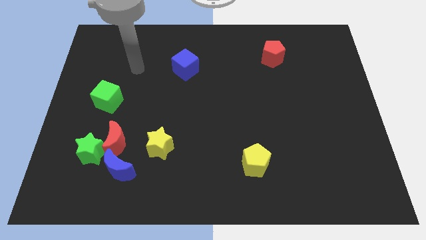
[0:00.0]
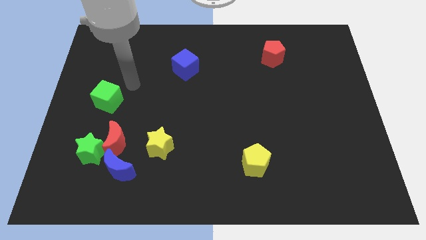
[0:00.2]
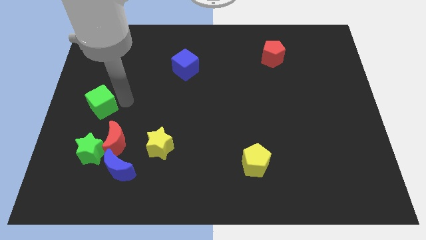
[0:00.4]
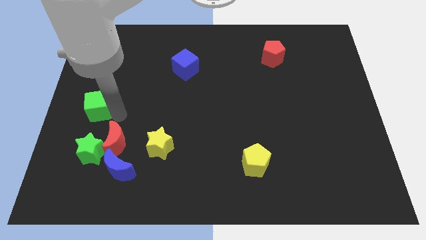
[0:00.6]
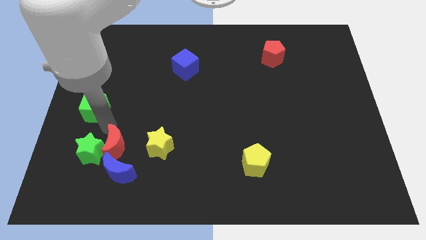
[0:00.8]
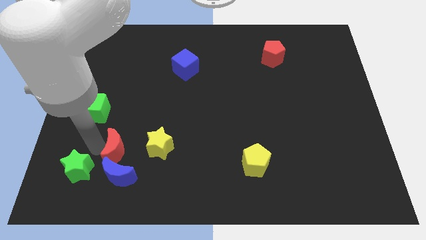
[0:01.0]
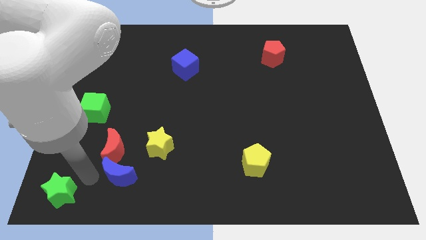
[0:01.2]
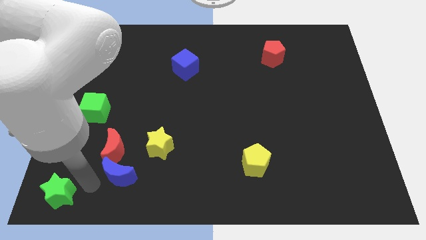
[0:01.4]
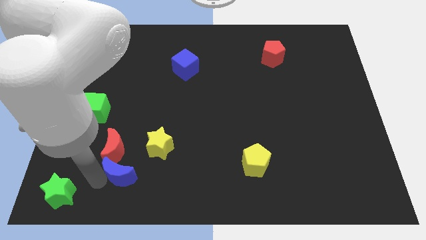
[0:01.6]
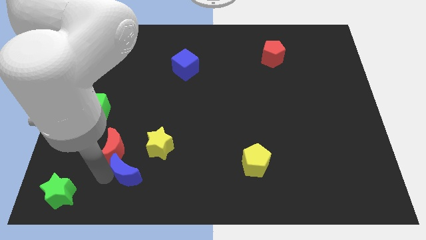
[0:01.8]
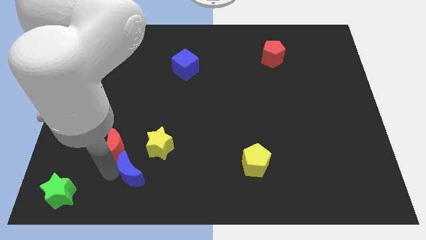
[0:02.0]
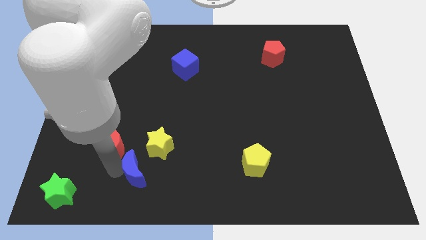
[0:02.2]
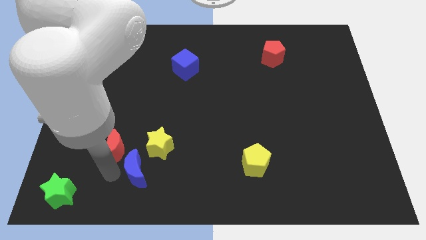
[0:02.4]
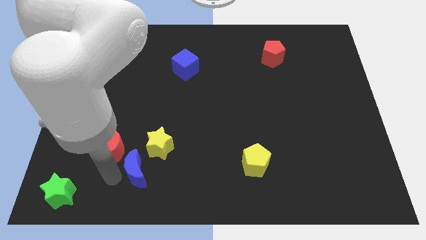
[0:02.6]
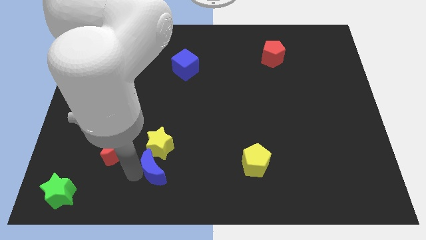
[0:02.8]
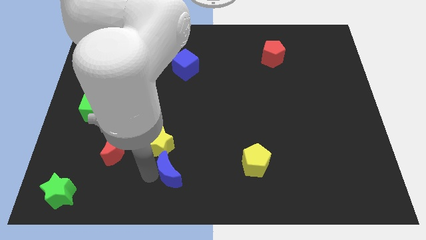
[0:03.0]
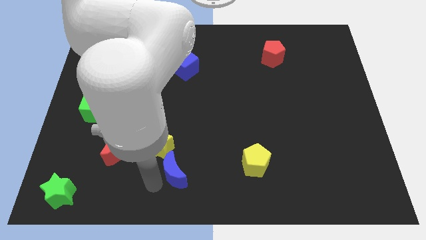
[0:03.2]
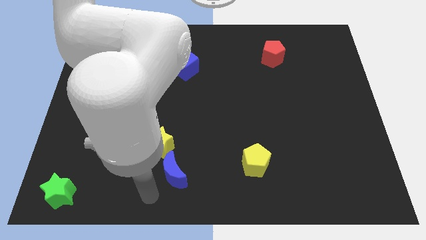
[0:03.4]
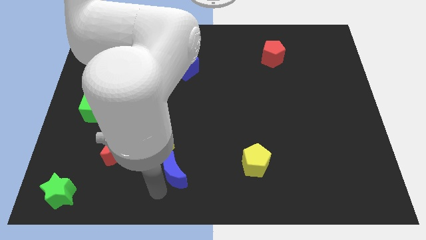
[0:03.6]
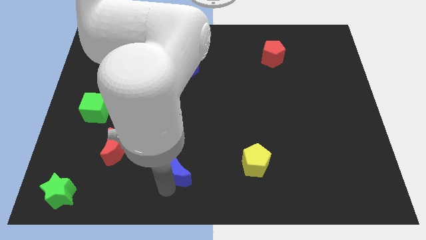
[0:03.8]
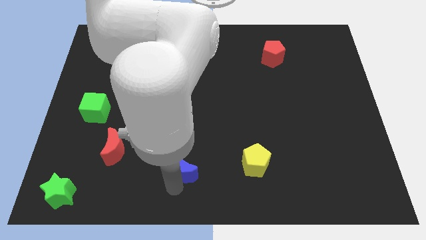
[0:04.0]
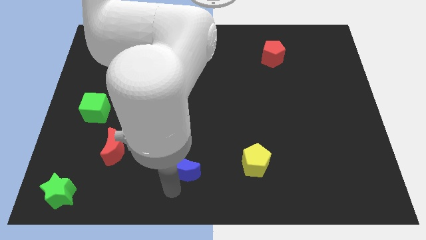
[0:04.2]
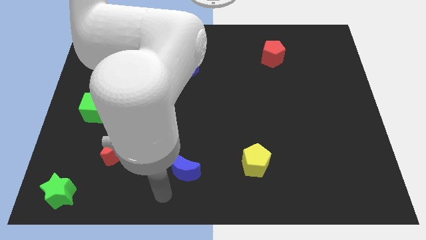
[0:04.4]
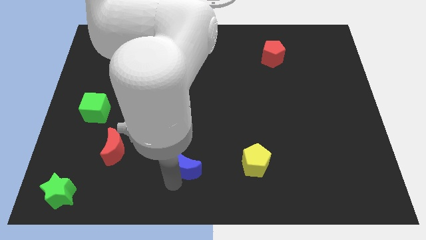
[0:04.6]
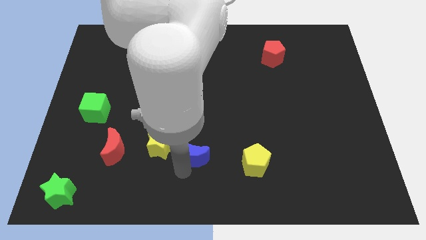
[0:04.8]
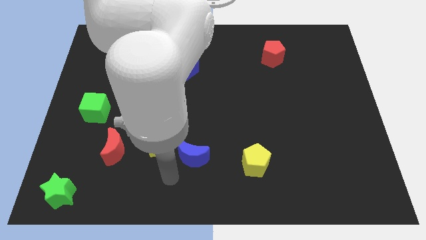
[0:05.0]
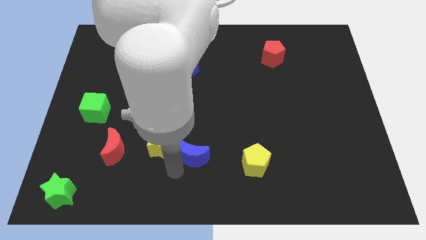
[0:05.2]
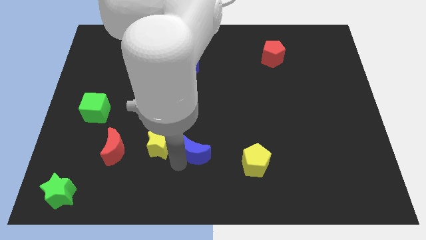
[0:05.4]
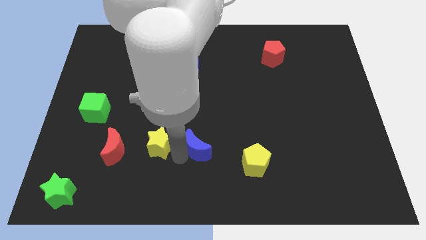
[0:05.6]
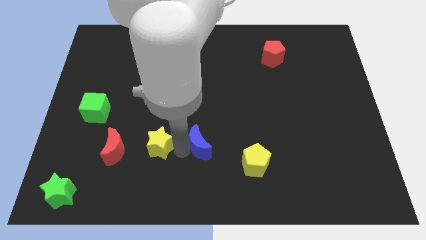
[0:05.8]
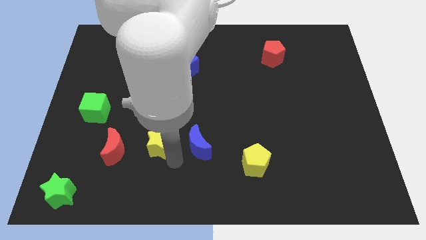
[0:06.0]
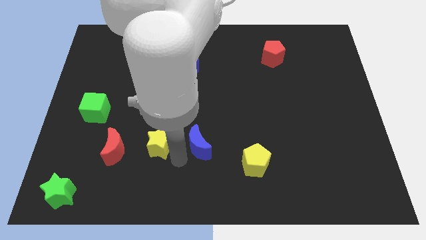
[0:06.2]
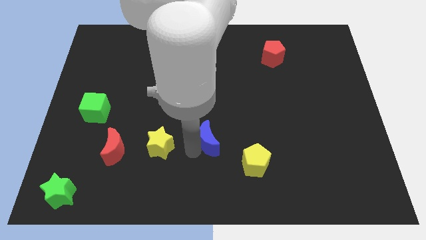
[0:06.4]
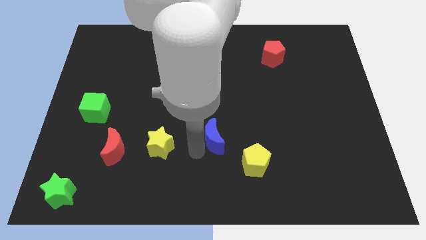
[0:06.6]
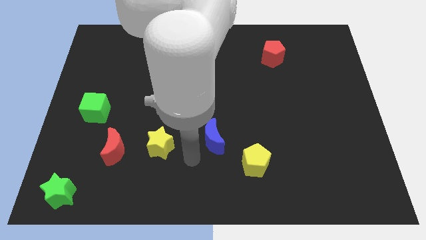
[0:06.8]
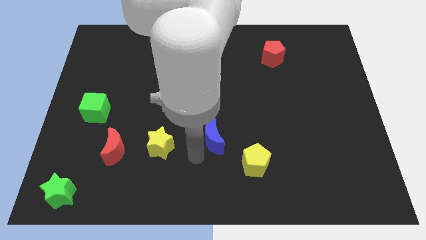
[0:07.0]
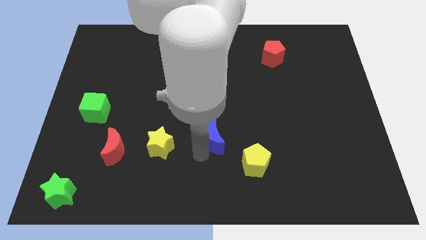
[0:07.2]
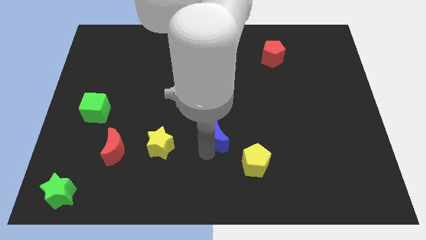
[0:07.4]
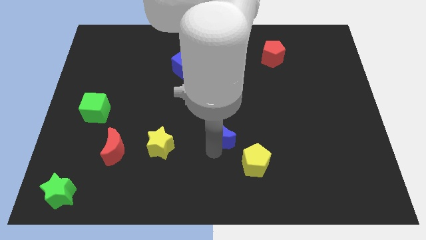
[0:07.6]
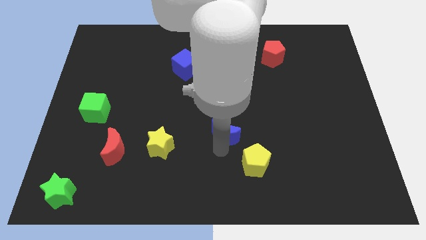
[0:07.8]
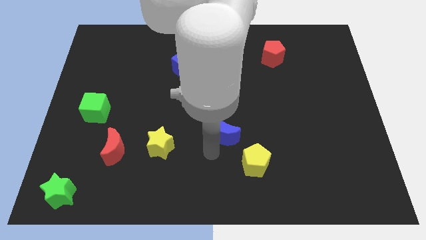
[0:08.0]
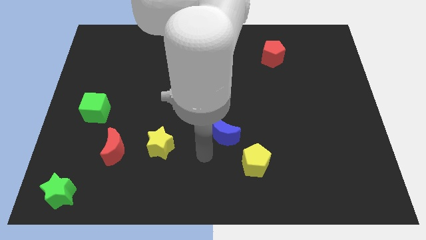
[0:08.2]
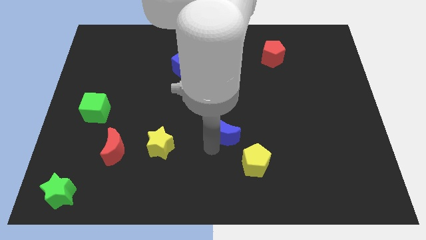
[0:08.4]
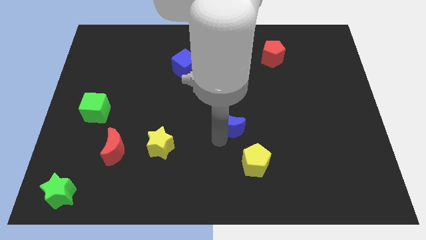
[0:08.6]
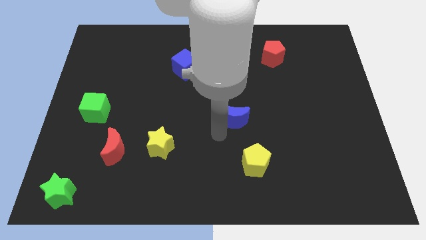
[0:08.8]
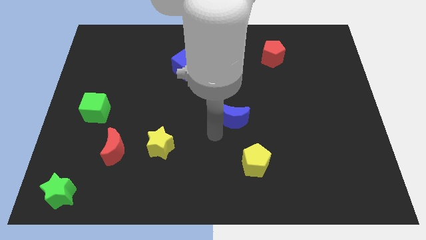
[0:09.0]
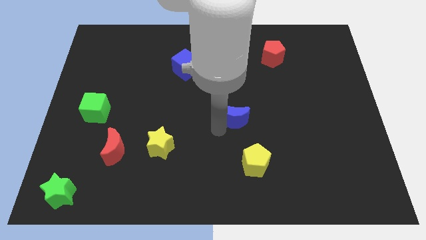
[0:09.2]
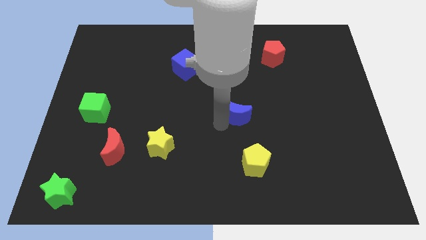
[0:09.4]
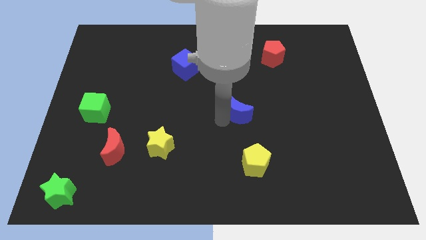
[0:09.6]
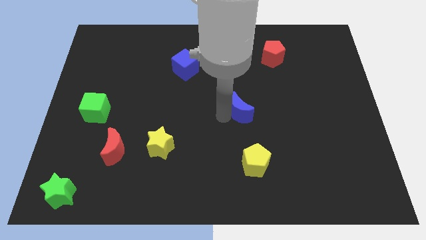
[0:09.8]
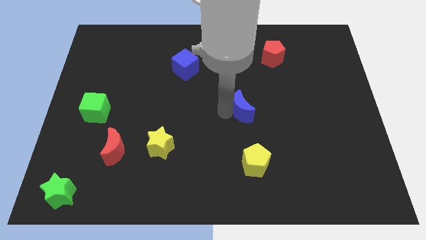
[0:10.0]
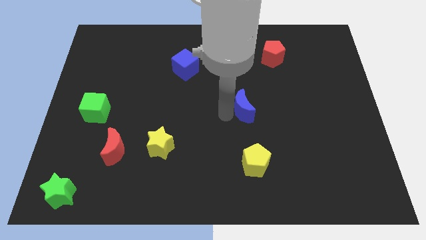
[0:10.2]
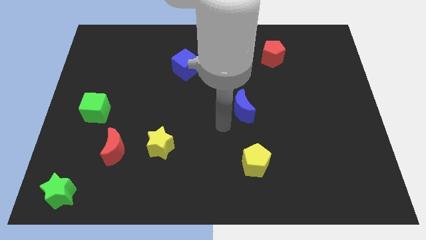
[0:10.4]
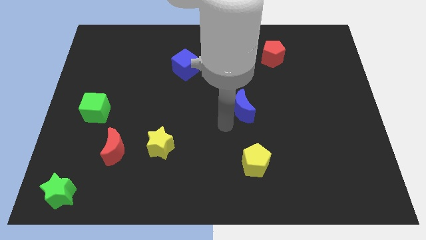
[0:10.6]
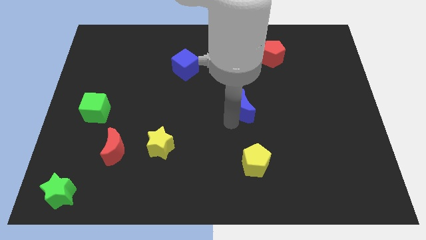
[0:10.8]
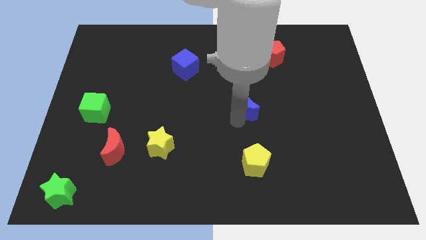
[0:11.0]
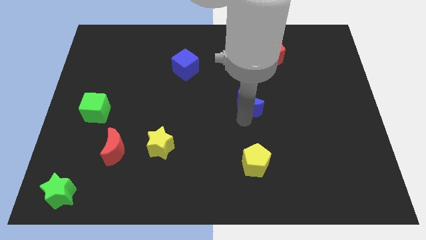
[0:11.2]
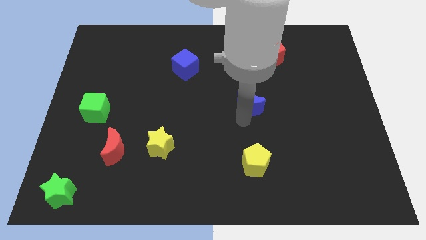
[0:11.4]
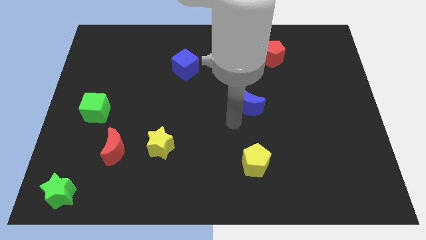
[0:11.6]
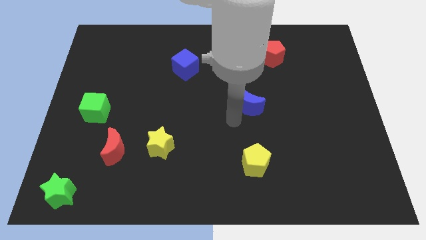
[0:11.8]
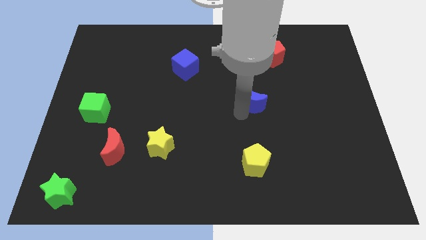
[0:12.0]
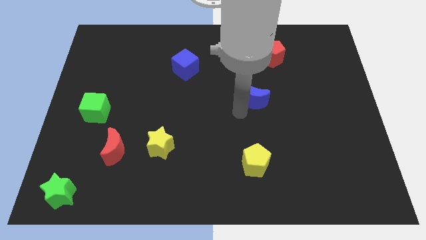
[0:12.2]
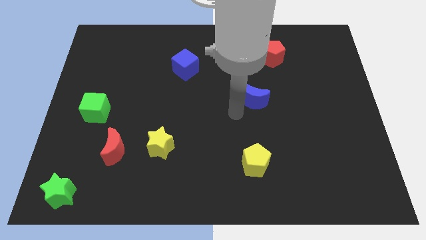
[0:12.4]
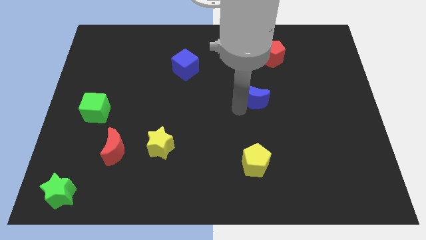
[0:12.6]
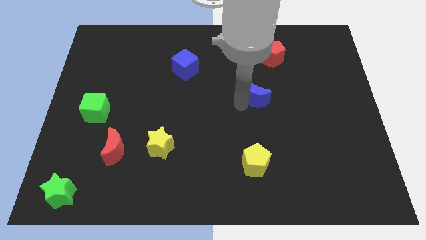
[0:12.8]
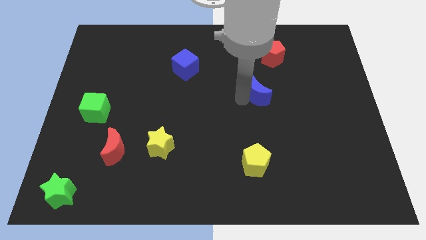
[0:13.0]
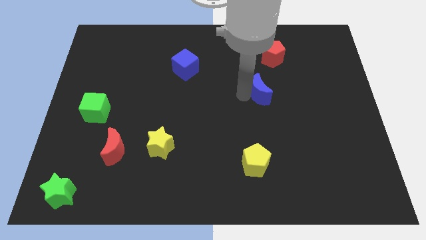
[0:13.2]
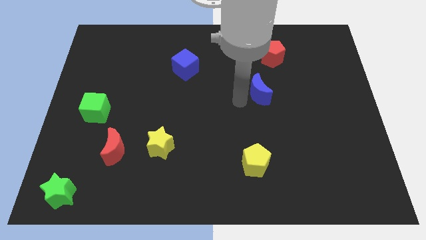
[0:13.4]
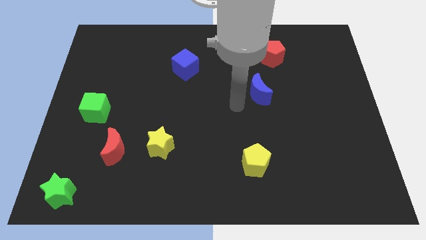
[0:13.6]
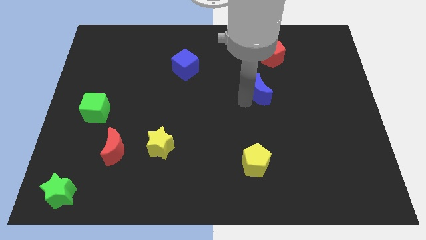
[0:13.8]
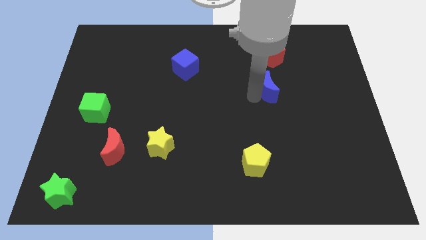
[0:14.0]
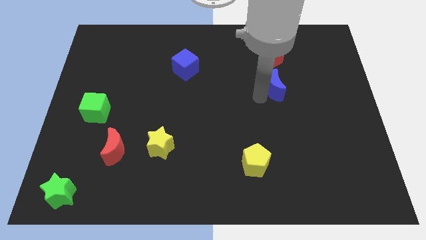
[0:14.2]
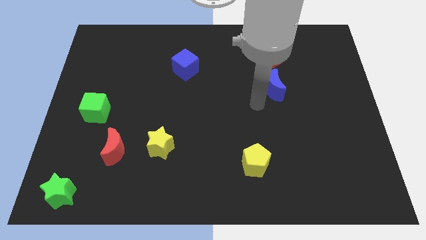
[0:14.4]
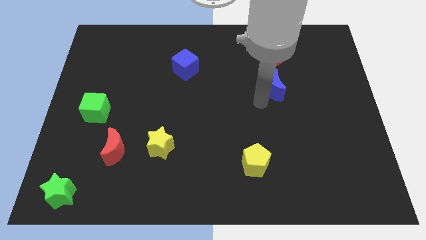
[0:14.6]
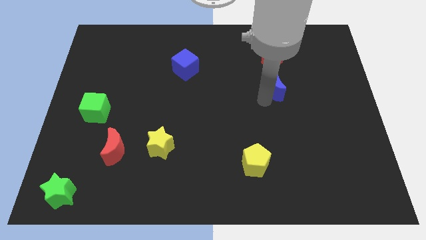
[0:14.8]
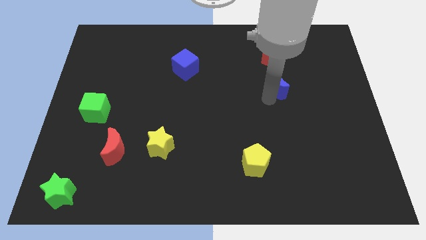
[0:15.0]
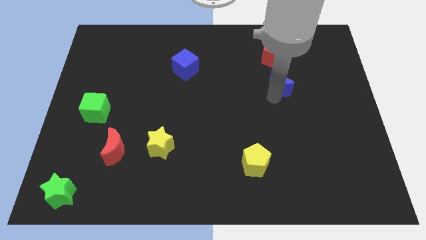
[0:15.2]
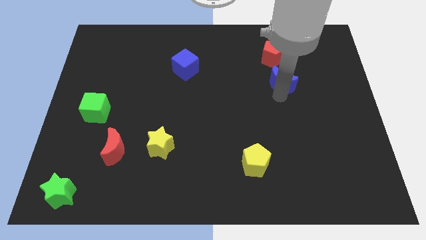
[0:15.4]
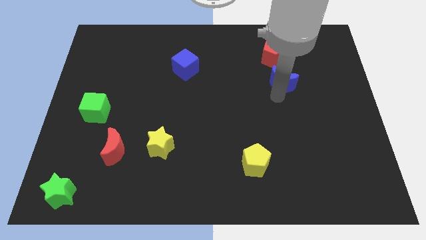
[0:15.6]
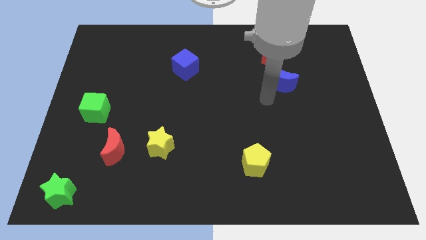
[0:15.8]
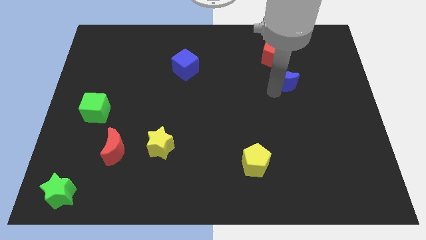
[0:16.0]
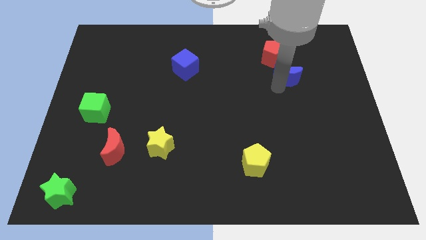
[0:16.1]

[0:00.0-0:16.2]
slide the blue moon to the bottom right side of the red pentagon
